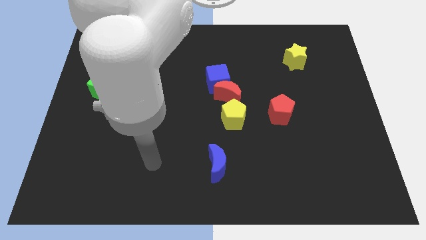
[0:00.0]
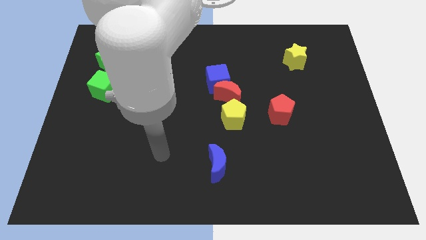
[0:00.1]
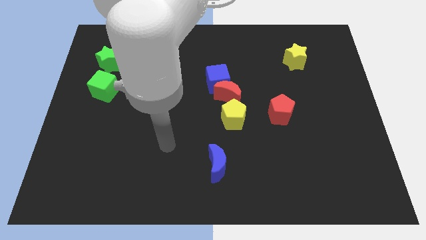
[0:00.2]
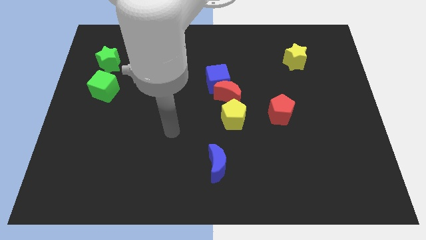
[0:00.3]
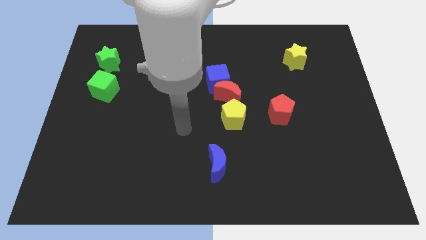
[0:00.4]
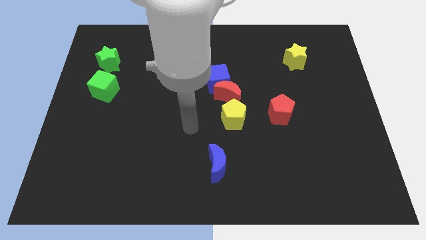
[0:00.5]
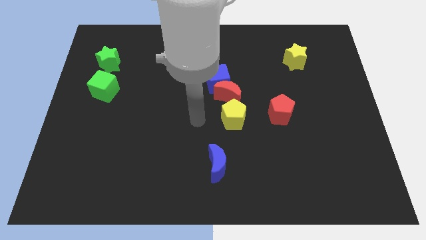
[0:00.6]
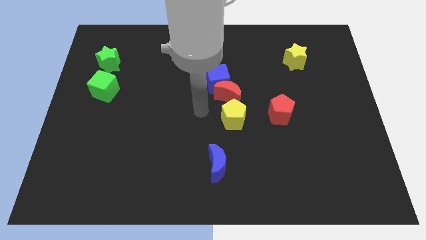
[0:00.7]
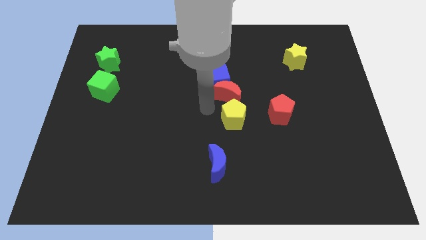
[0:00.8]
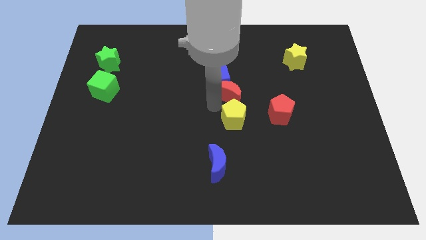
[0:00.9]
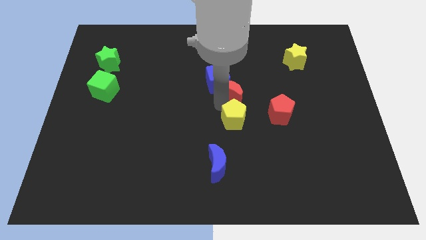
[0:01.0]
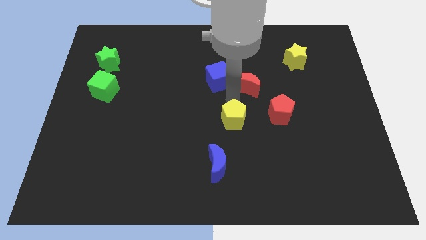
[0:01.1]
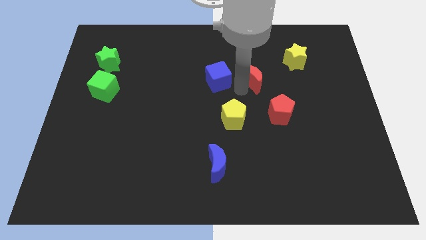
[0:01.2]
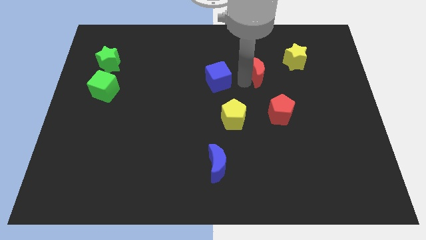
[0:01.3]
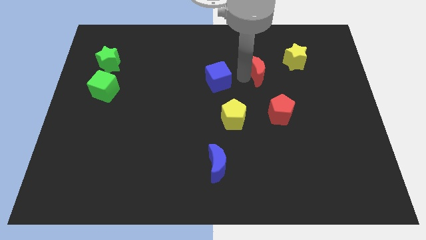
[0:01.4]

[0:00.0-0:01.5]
separate the blue cube from the red moon

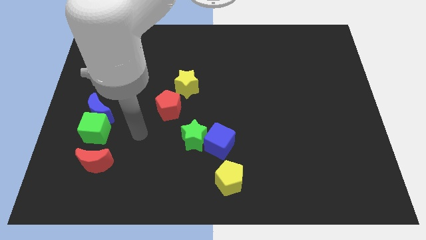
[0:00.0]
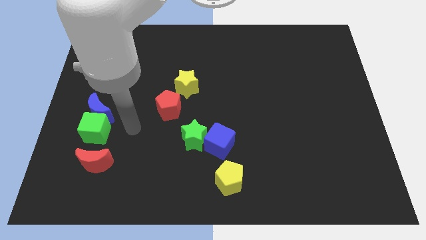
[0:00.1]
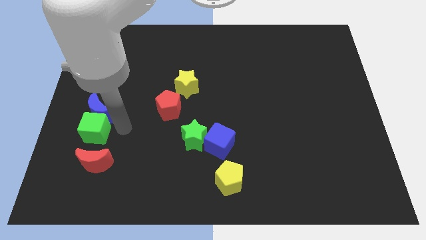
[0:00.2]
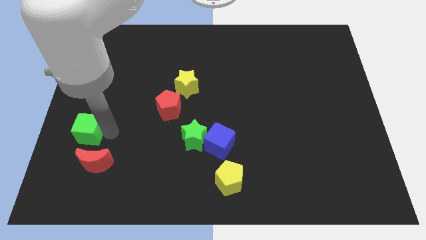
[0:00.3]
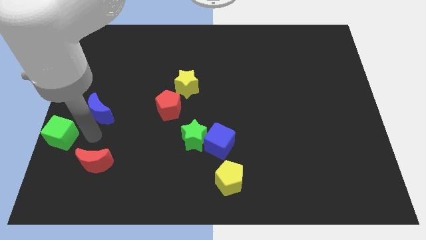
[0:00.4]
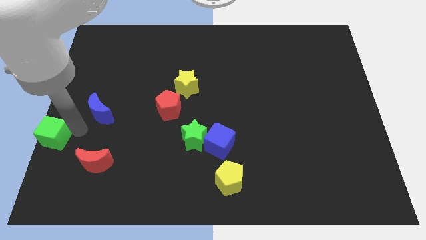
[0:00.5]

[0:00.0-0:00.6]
move the blue moon away from the green cube

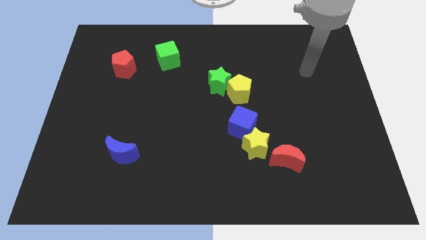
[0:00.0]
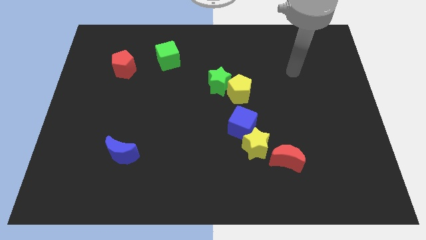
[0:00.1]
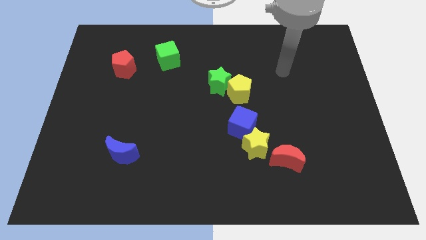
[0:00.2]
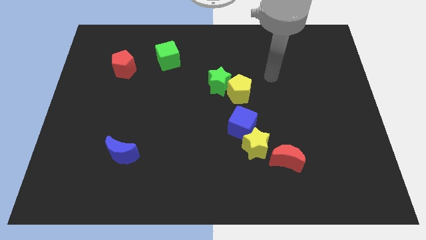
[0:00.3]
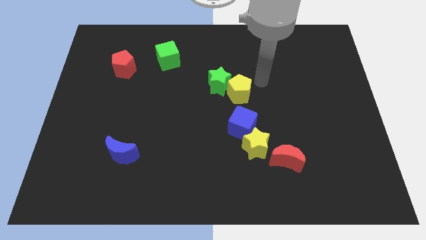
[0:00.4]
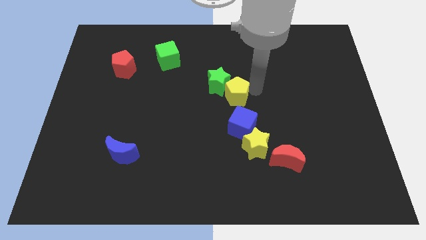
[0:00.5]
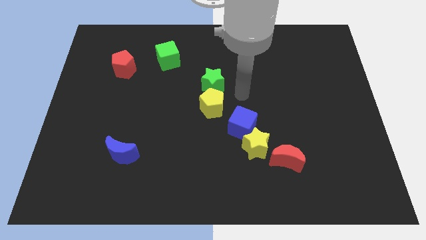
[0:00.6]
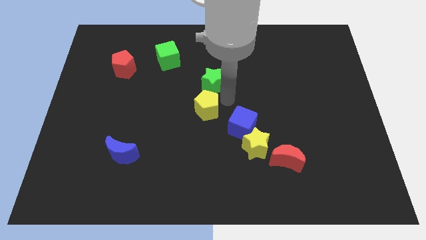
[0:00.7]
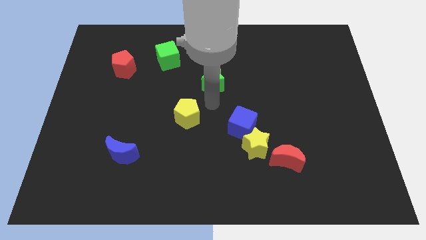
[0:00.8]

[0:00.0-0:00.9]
move the green star away from the yellow pentagon

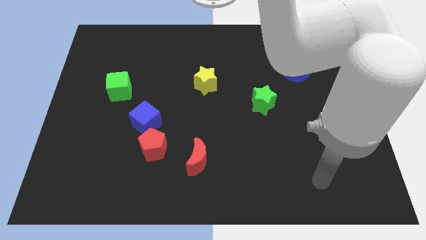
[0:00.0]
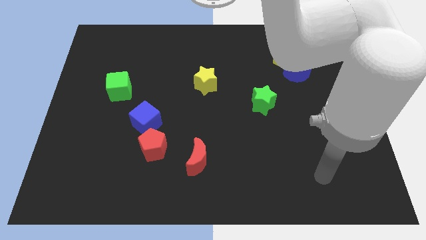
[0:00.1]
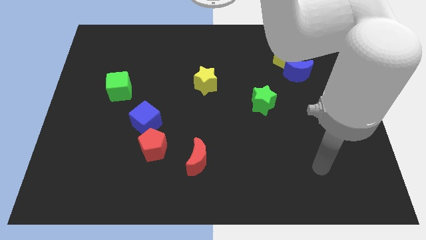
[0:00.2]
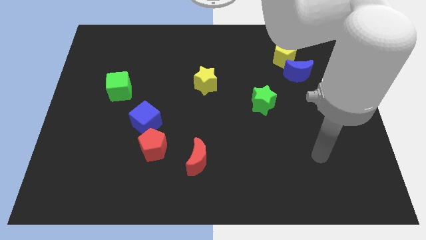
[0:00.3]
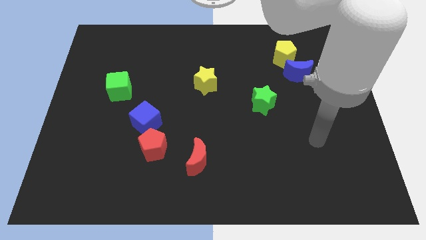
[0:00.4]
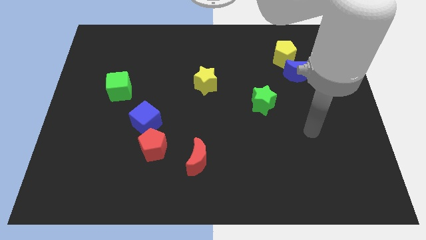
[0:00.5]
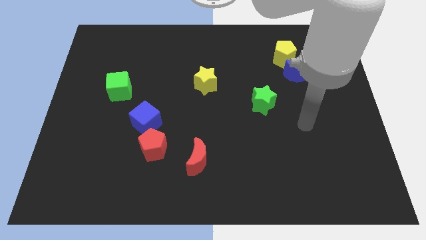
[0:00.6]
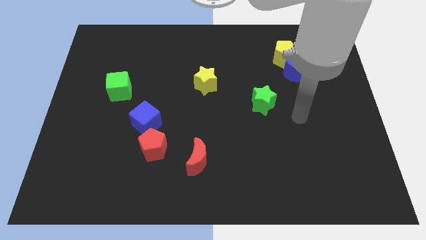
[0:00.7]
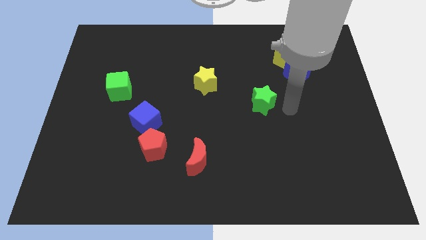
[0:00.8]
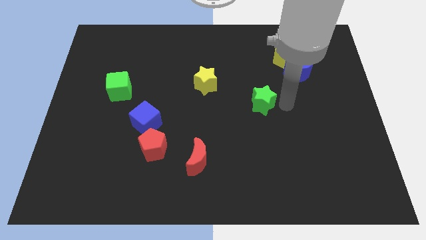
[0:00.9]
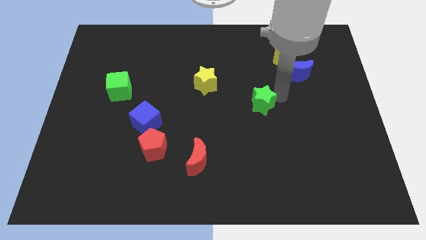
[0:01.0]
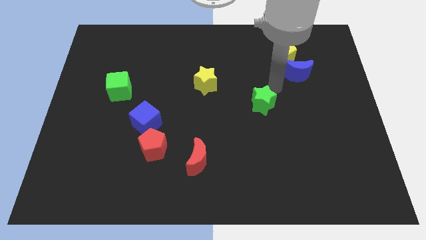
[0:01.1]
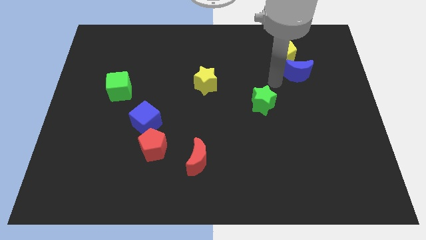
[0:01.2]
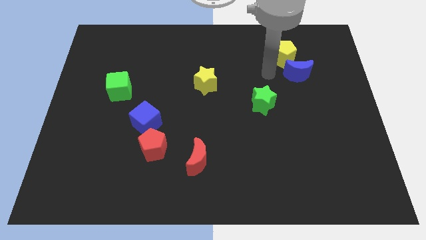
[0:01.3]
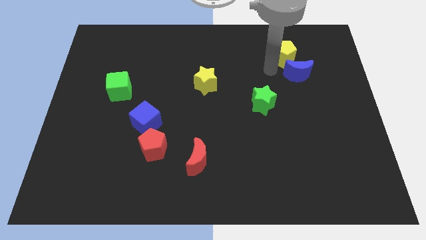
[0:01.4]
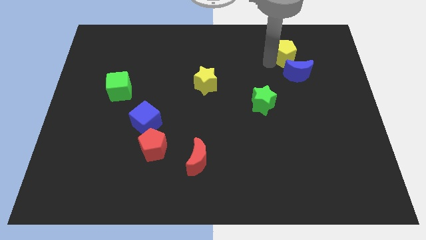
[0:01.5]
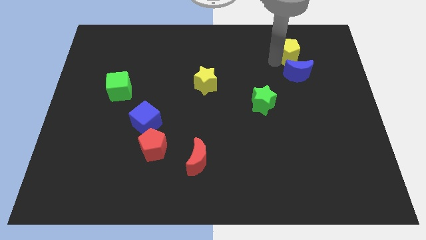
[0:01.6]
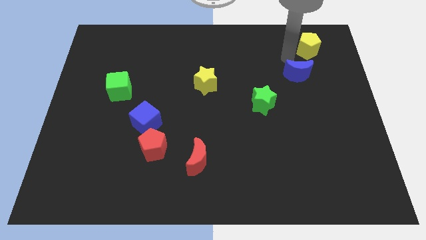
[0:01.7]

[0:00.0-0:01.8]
pull the blue moon apart from the yellow pentagon

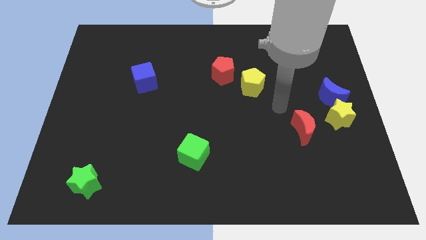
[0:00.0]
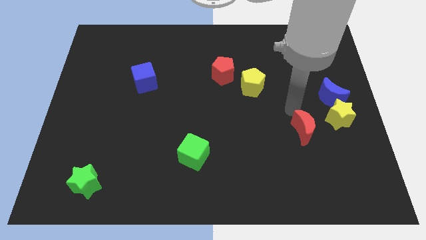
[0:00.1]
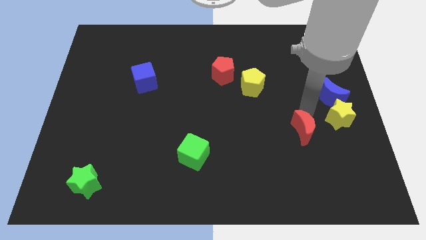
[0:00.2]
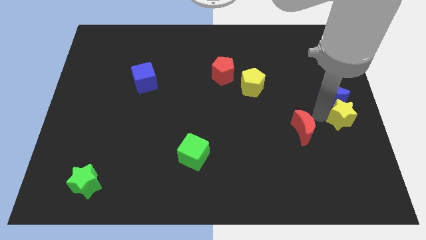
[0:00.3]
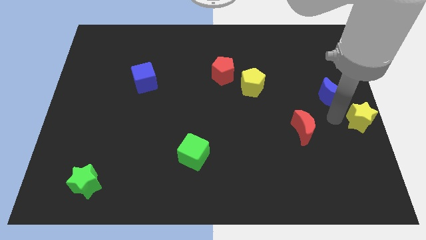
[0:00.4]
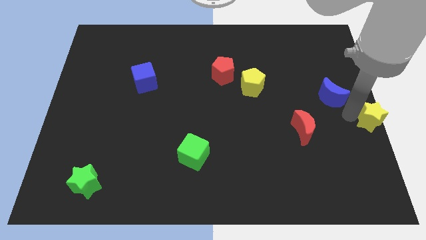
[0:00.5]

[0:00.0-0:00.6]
move the blue moon away from the yellow star

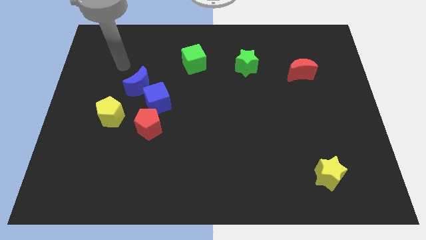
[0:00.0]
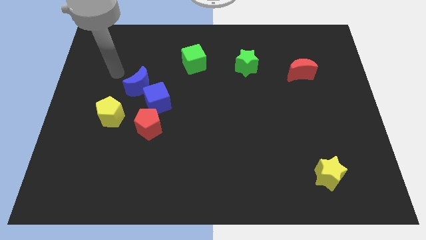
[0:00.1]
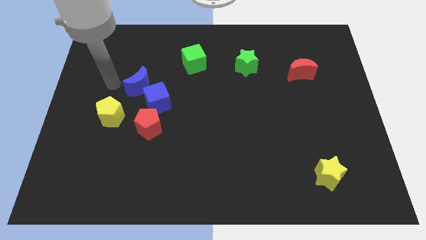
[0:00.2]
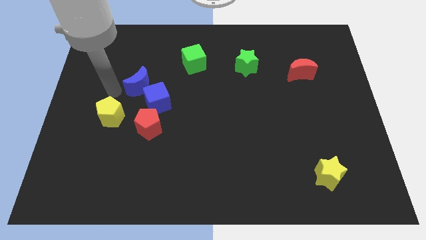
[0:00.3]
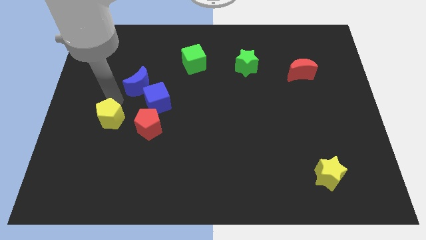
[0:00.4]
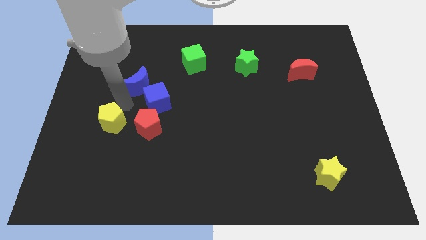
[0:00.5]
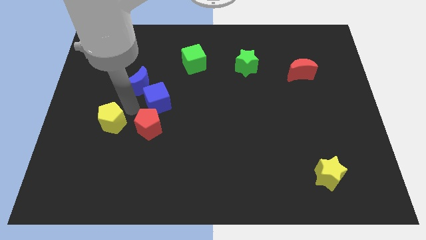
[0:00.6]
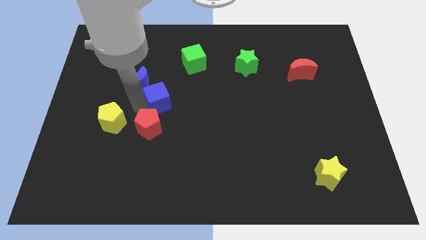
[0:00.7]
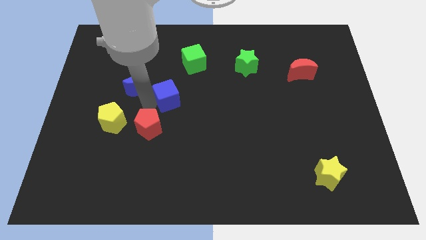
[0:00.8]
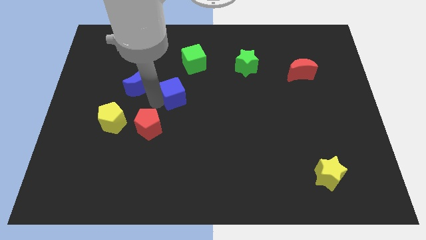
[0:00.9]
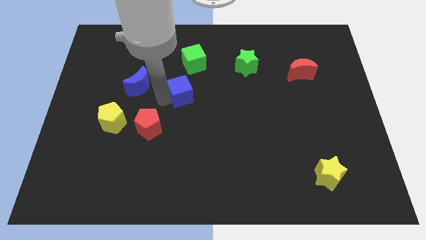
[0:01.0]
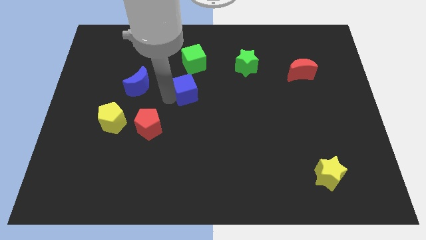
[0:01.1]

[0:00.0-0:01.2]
separate the blue cube from the blue moon and red pentagon

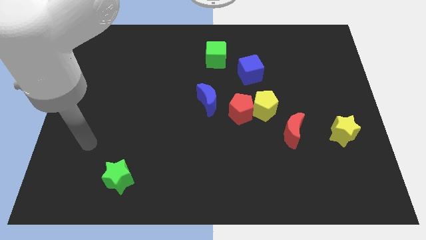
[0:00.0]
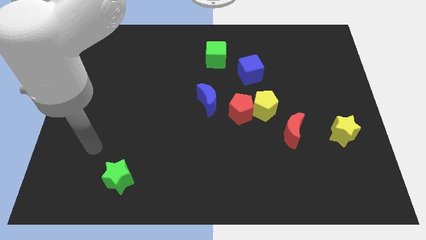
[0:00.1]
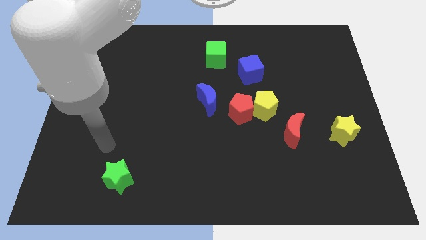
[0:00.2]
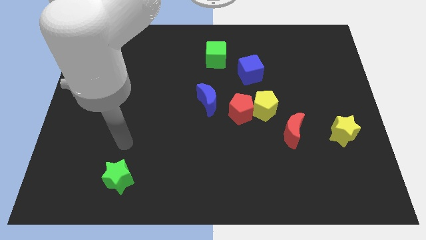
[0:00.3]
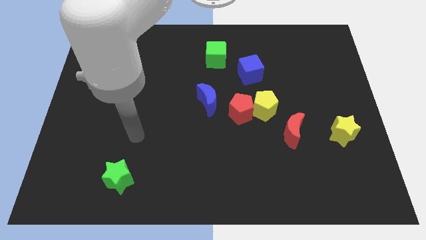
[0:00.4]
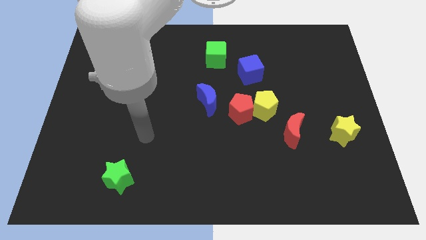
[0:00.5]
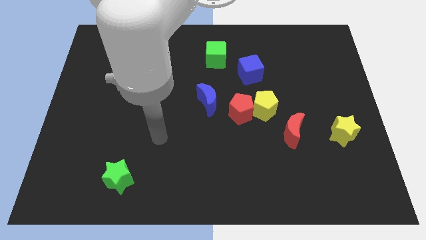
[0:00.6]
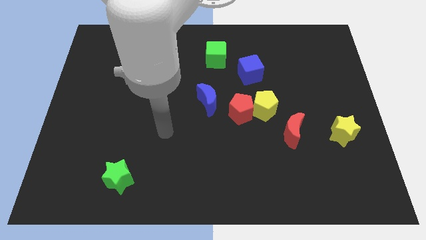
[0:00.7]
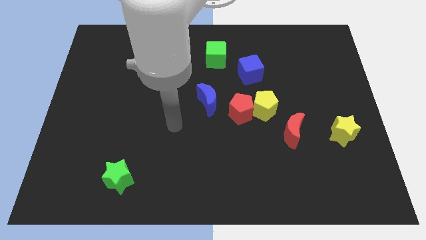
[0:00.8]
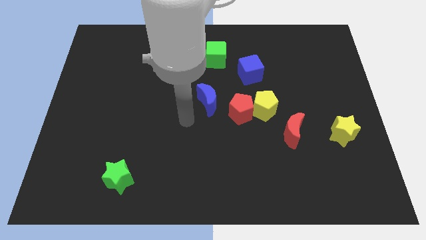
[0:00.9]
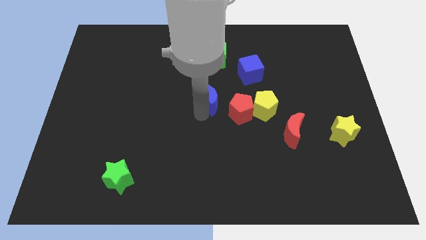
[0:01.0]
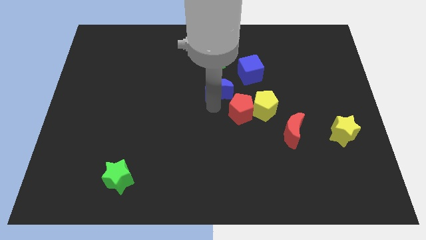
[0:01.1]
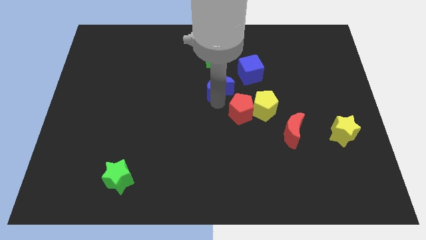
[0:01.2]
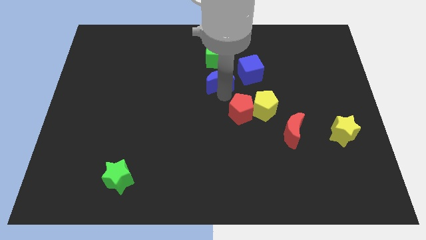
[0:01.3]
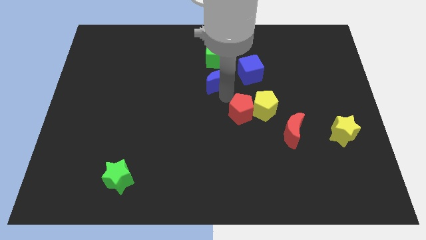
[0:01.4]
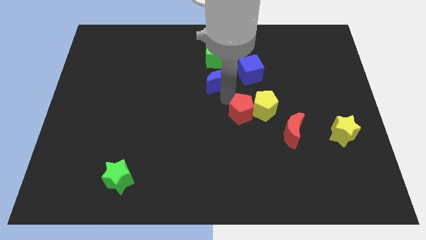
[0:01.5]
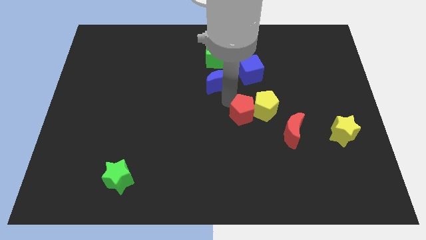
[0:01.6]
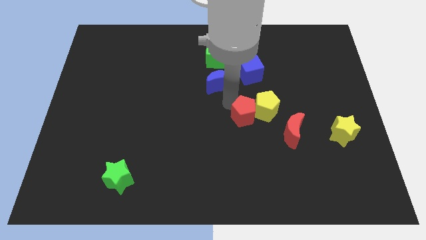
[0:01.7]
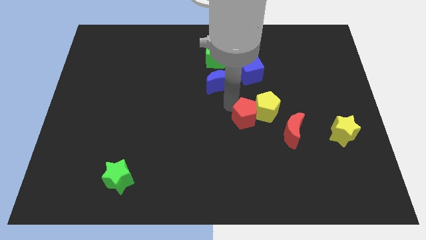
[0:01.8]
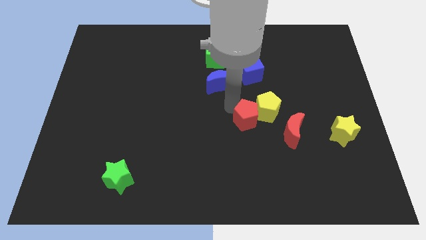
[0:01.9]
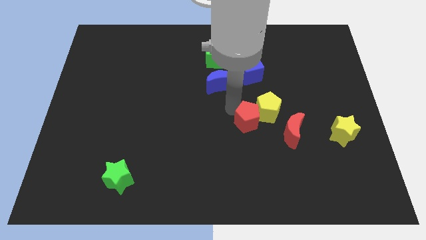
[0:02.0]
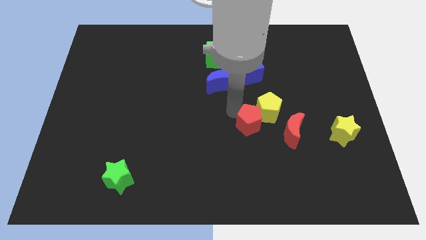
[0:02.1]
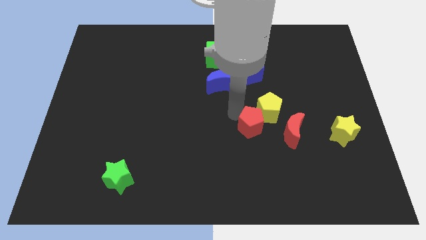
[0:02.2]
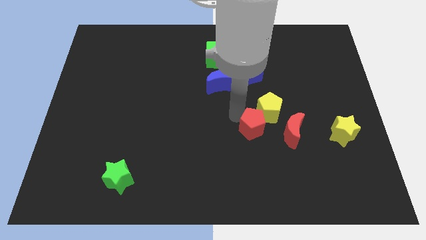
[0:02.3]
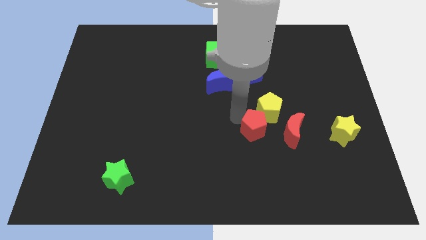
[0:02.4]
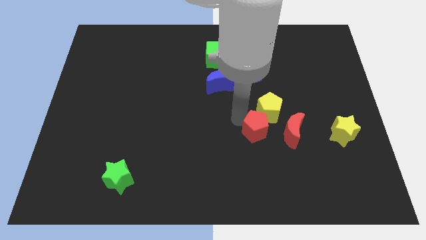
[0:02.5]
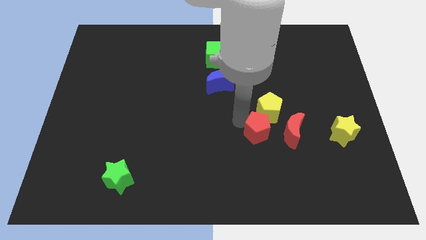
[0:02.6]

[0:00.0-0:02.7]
pull the red pentagon apart from the yellow pentagon and blue moon
